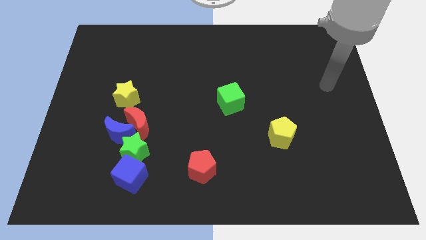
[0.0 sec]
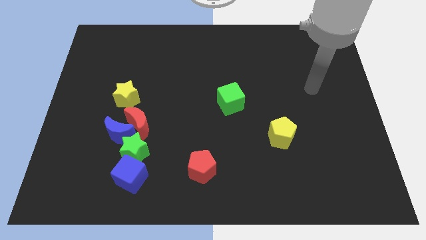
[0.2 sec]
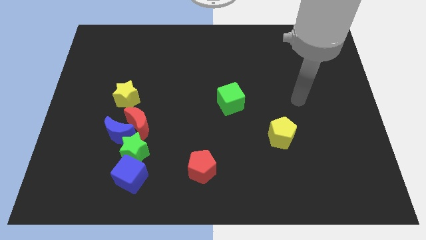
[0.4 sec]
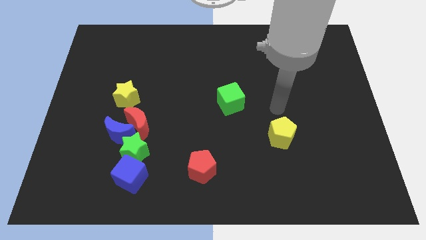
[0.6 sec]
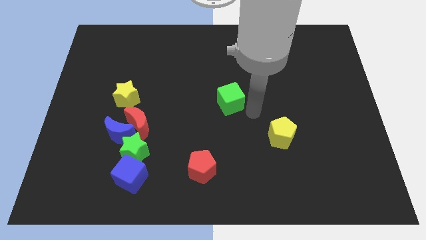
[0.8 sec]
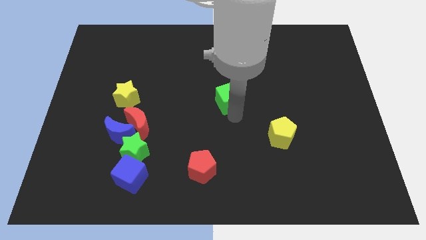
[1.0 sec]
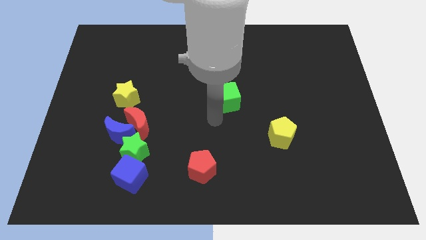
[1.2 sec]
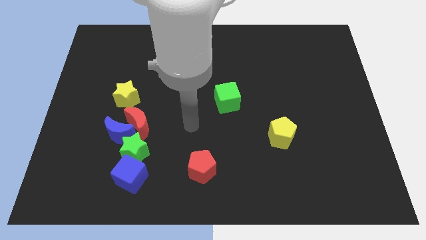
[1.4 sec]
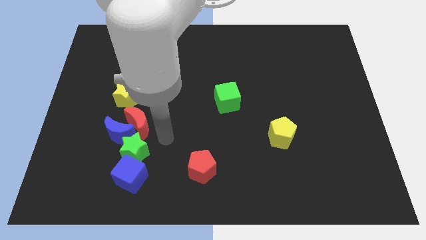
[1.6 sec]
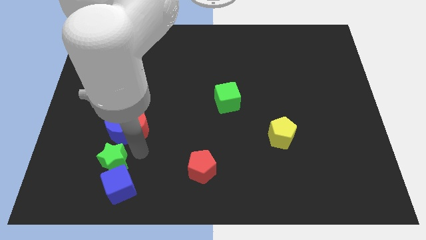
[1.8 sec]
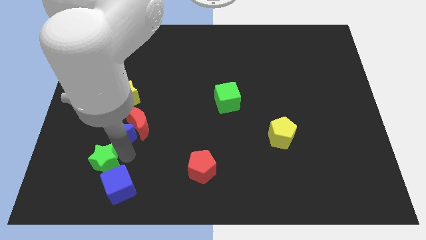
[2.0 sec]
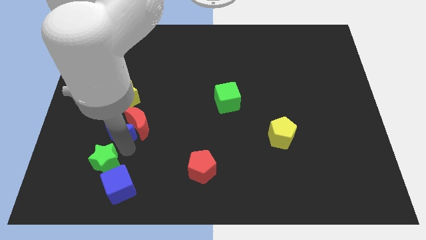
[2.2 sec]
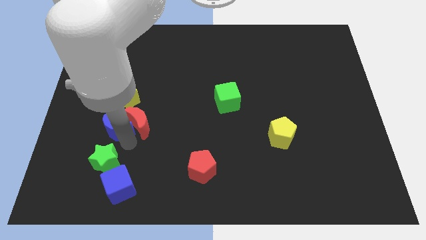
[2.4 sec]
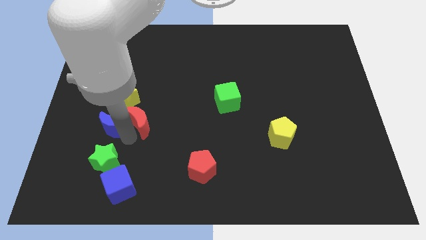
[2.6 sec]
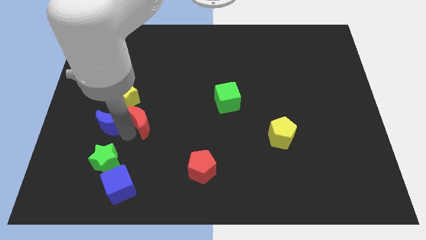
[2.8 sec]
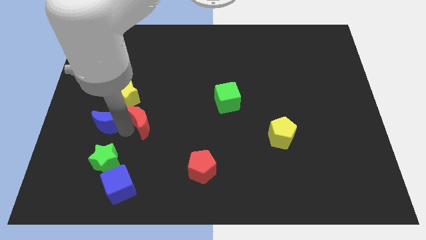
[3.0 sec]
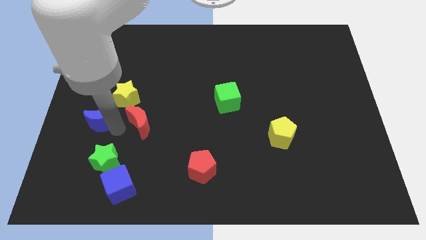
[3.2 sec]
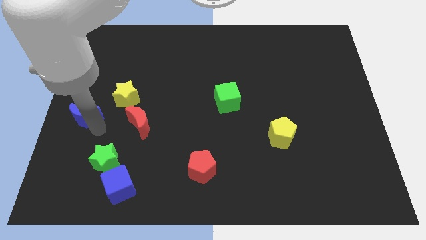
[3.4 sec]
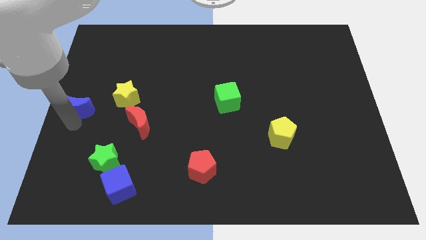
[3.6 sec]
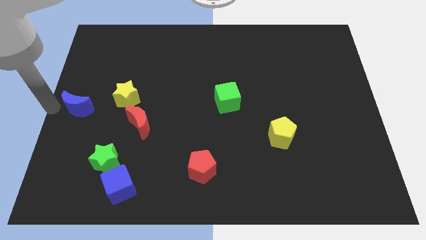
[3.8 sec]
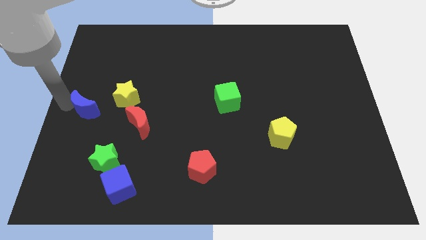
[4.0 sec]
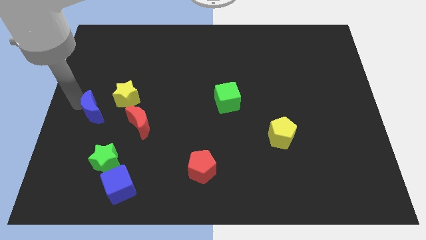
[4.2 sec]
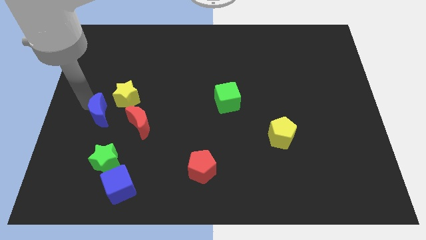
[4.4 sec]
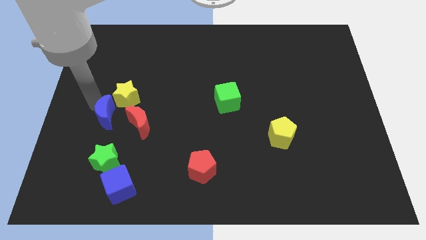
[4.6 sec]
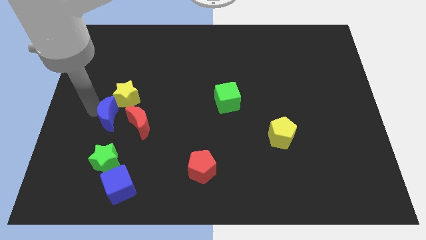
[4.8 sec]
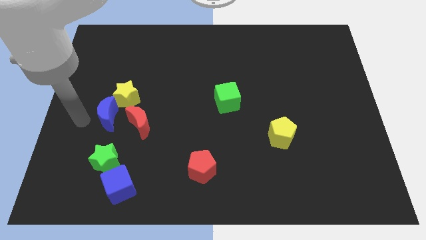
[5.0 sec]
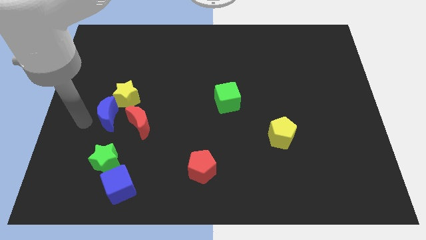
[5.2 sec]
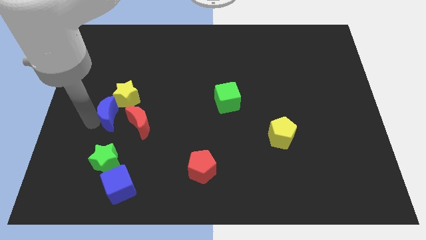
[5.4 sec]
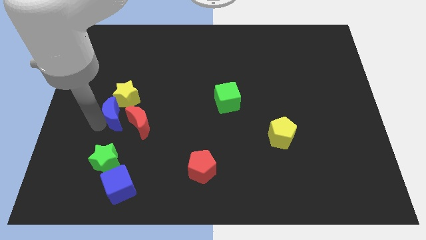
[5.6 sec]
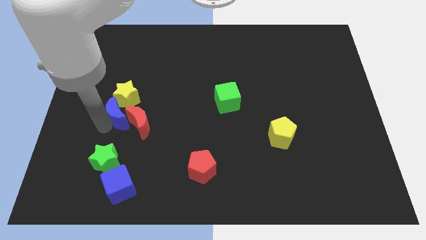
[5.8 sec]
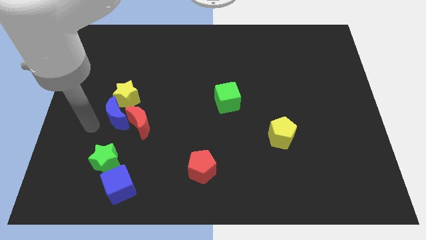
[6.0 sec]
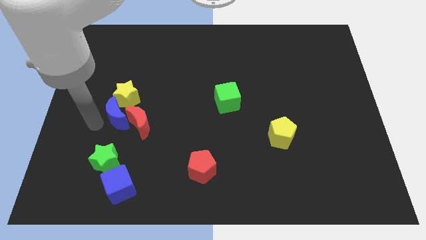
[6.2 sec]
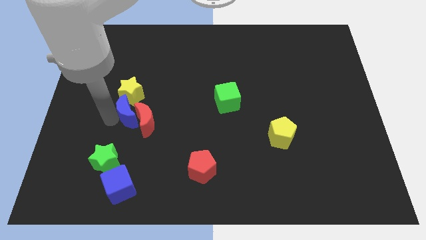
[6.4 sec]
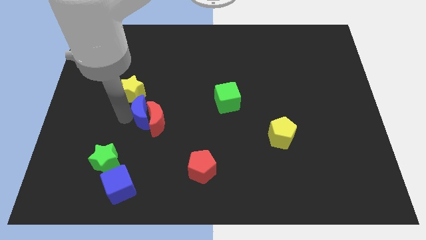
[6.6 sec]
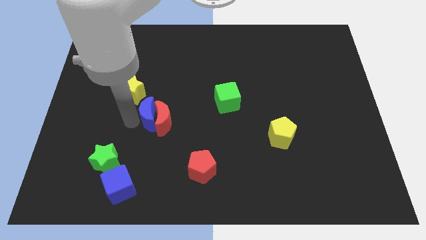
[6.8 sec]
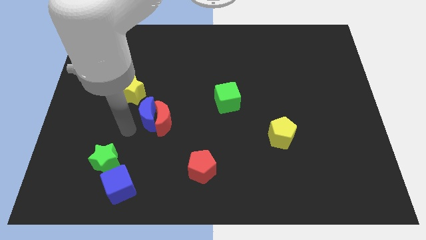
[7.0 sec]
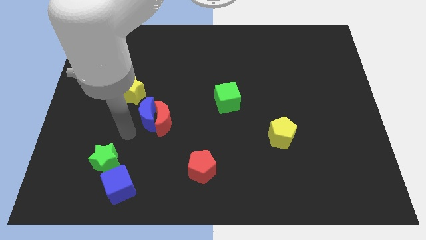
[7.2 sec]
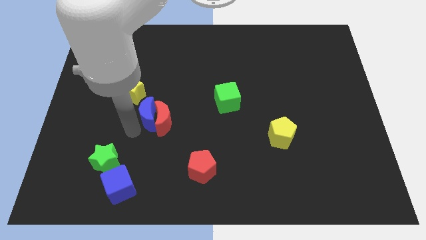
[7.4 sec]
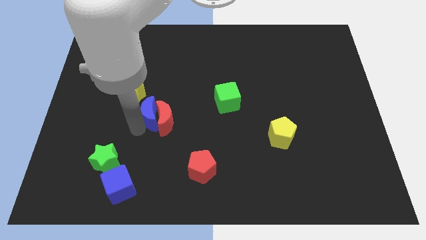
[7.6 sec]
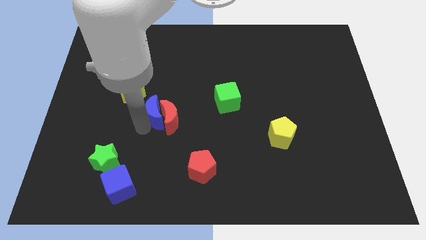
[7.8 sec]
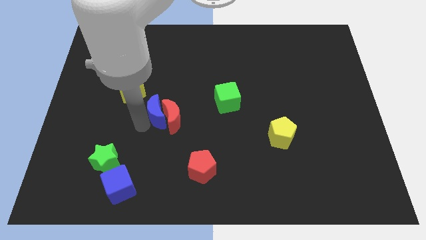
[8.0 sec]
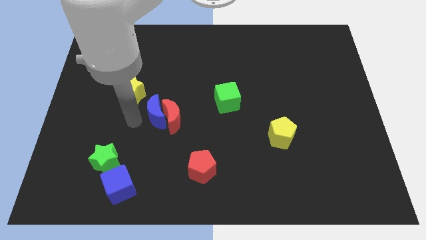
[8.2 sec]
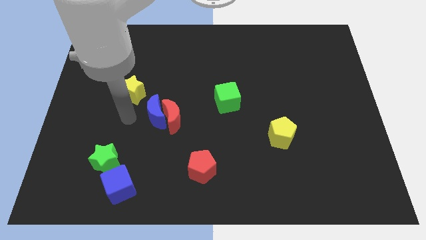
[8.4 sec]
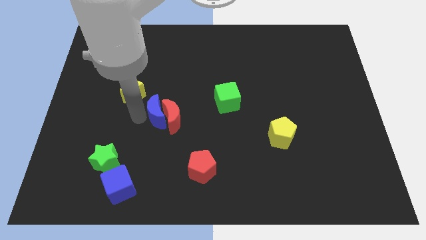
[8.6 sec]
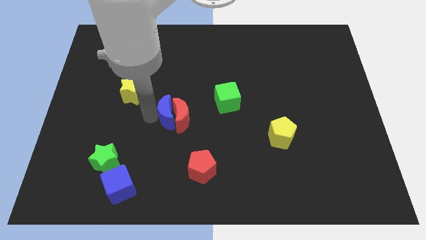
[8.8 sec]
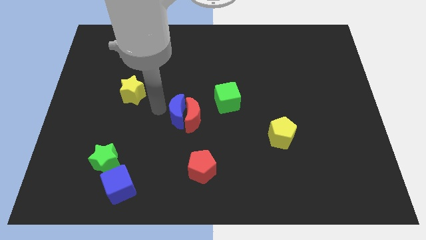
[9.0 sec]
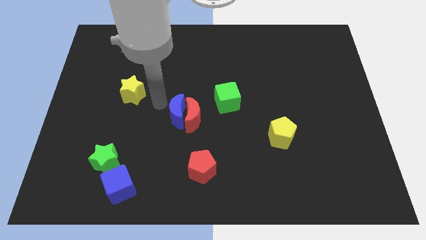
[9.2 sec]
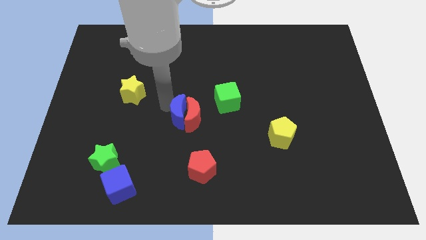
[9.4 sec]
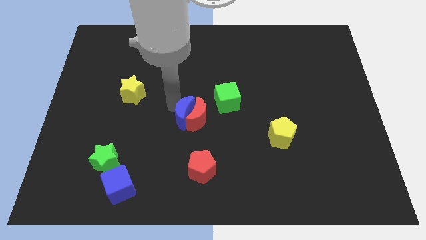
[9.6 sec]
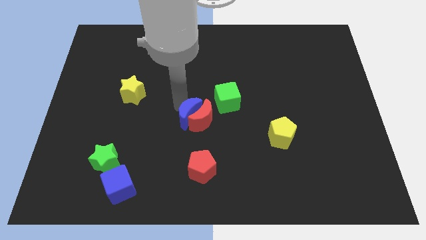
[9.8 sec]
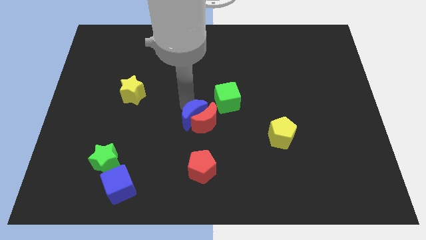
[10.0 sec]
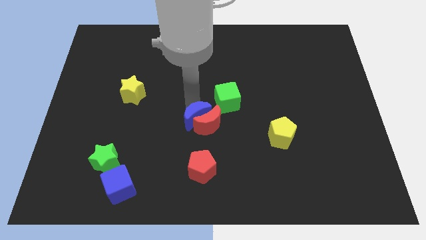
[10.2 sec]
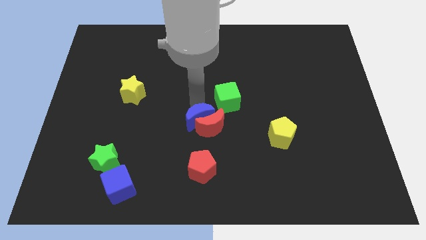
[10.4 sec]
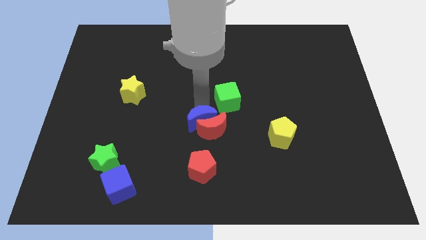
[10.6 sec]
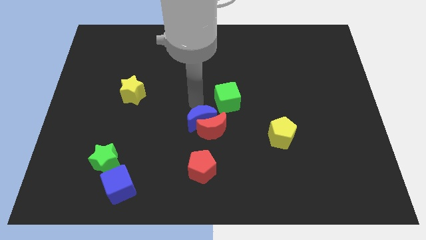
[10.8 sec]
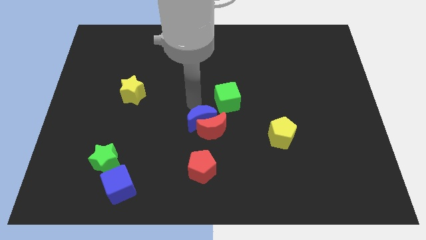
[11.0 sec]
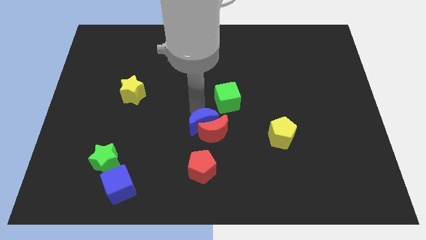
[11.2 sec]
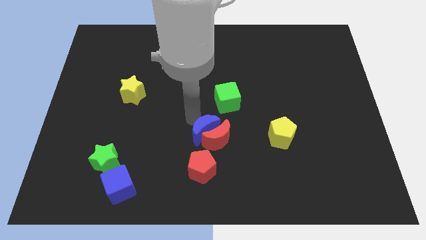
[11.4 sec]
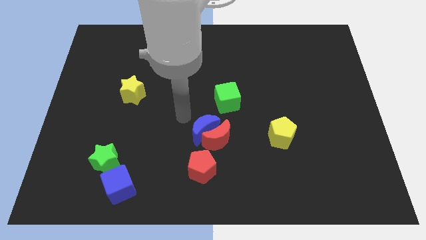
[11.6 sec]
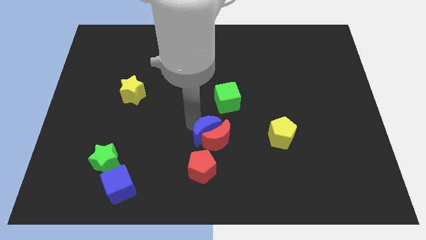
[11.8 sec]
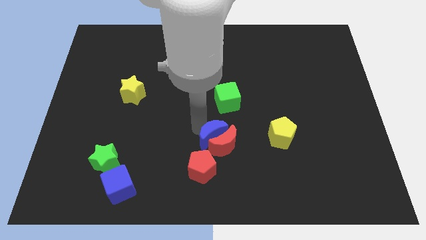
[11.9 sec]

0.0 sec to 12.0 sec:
slide the blue moon to the top right side of the red pentagon

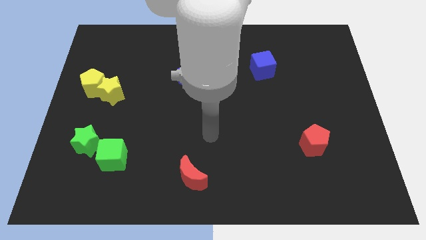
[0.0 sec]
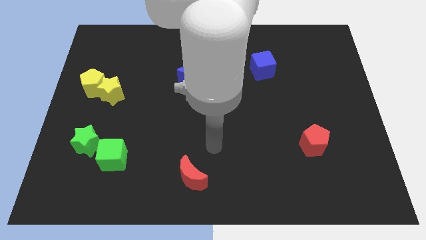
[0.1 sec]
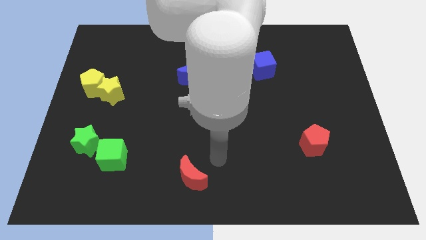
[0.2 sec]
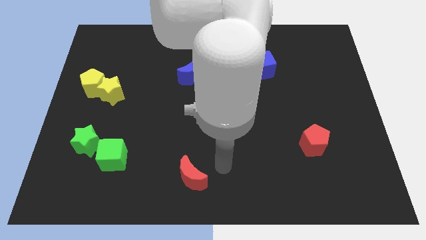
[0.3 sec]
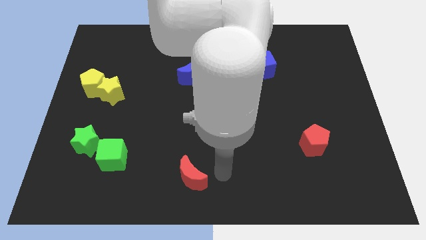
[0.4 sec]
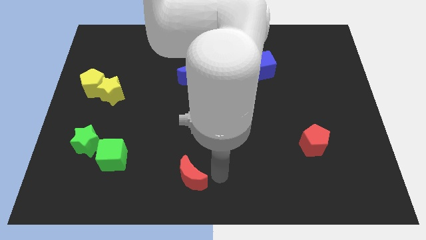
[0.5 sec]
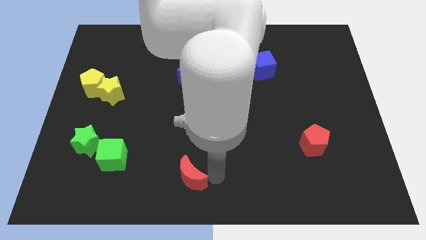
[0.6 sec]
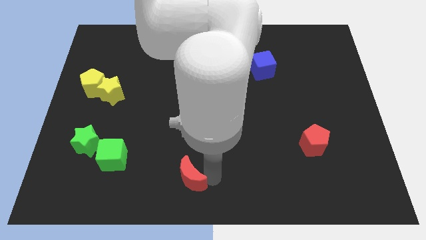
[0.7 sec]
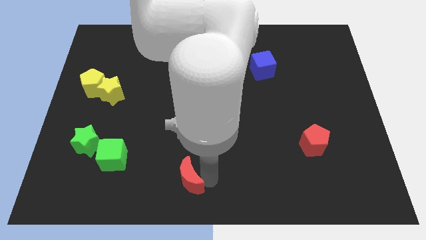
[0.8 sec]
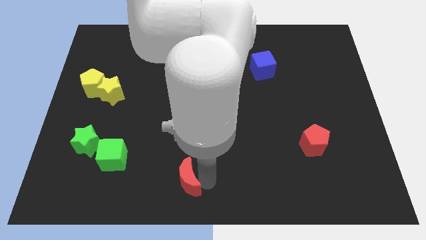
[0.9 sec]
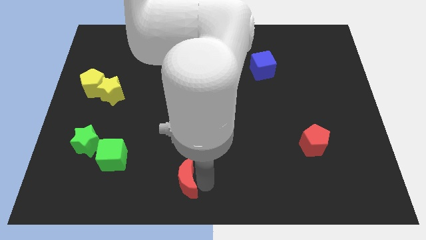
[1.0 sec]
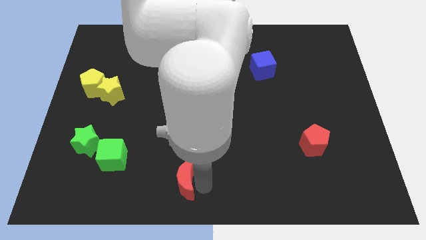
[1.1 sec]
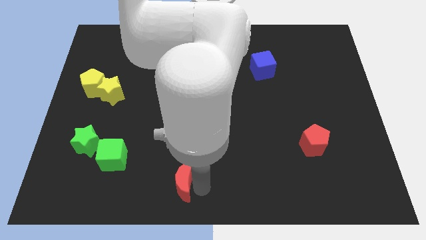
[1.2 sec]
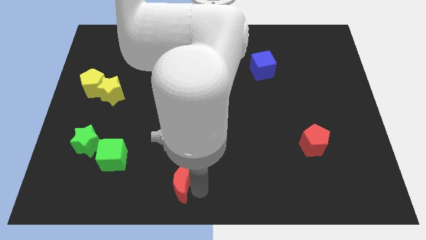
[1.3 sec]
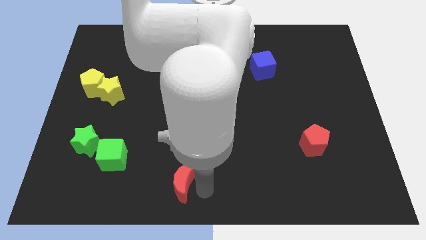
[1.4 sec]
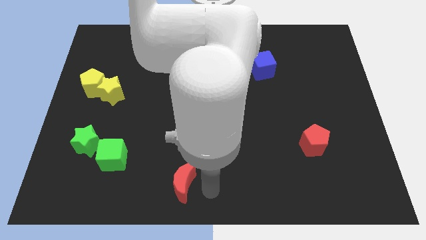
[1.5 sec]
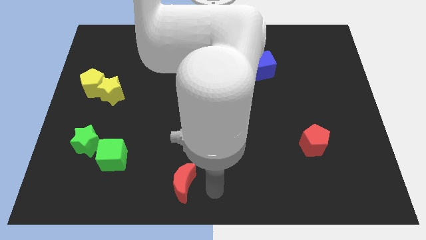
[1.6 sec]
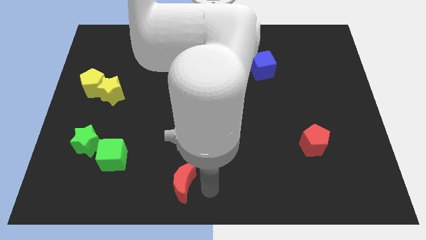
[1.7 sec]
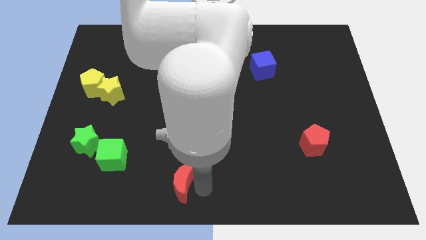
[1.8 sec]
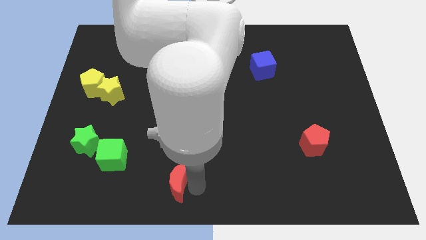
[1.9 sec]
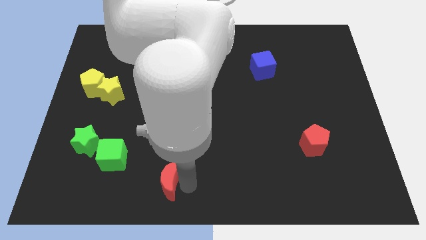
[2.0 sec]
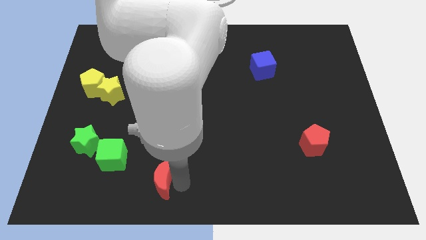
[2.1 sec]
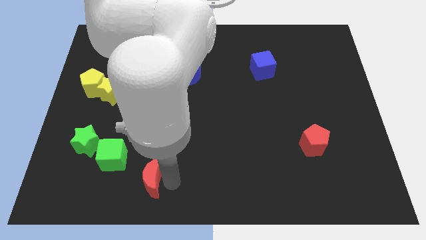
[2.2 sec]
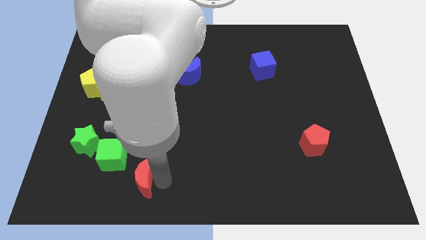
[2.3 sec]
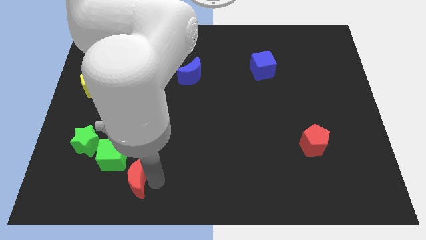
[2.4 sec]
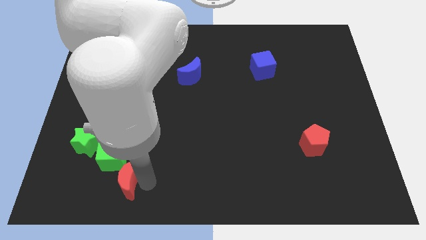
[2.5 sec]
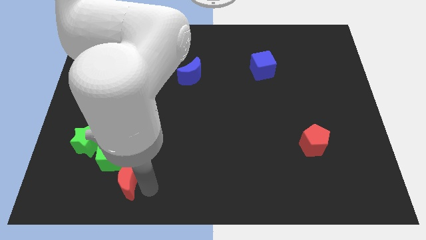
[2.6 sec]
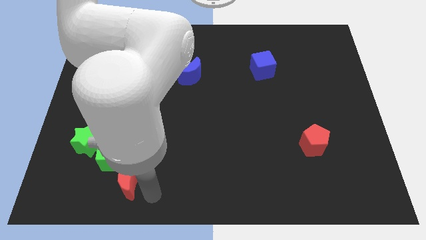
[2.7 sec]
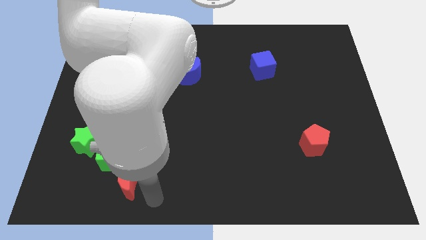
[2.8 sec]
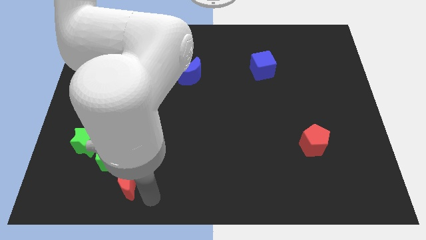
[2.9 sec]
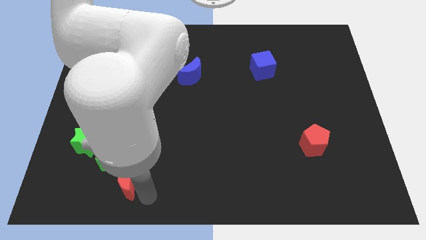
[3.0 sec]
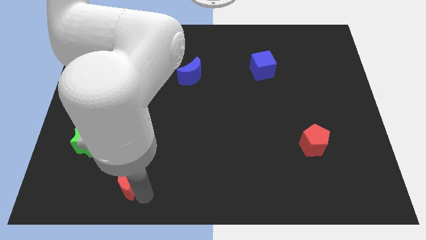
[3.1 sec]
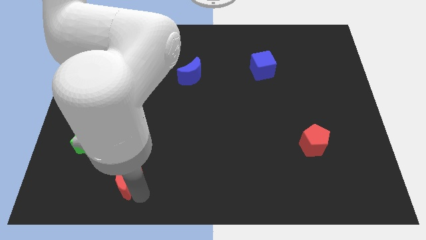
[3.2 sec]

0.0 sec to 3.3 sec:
slide the red moon to the bottom right side of the green star
